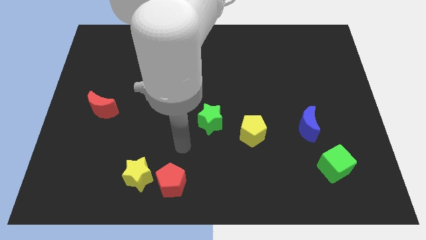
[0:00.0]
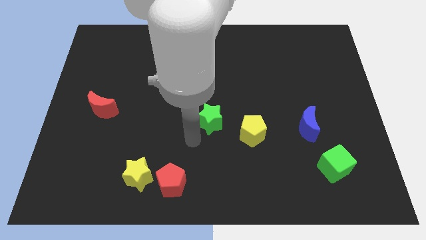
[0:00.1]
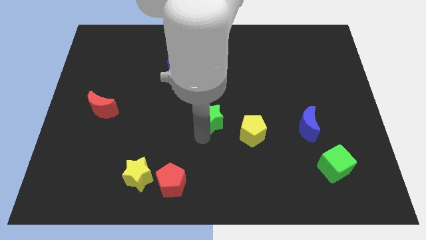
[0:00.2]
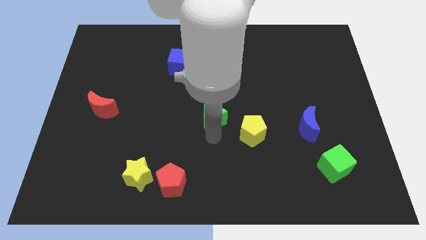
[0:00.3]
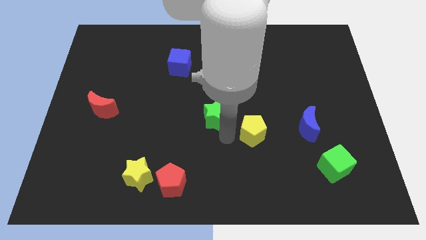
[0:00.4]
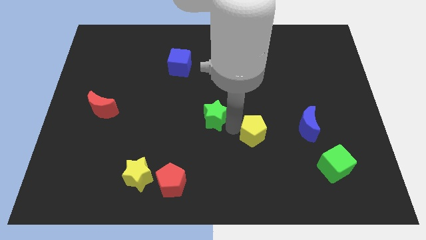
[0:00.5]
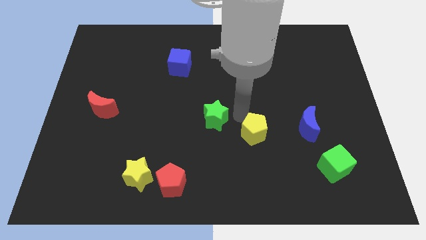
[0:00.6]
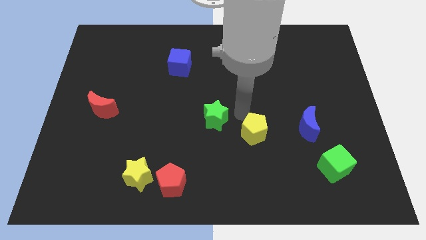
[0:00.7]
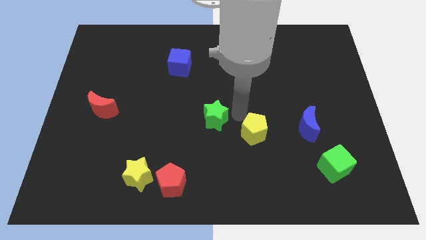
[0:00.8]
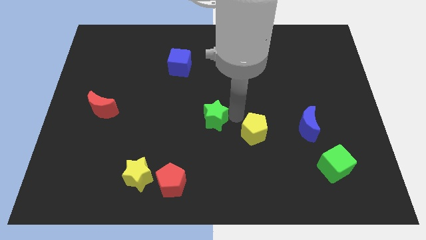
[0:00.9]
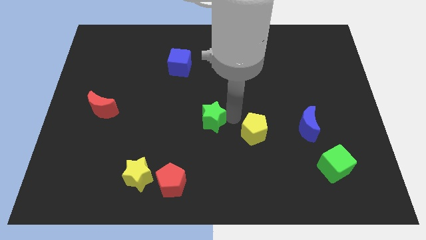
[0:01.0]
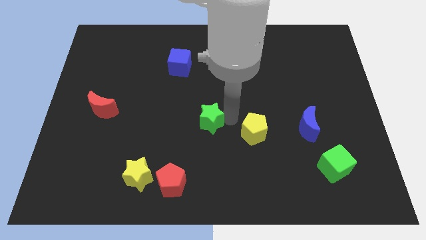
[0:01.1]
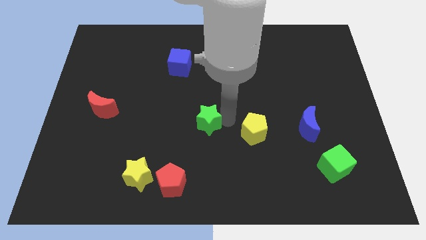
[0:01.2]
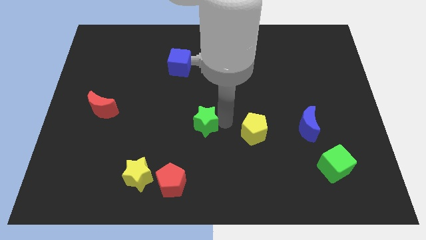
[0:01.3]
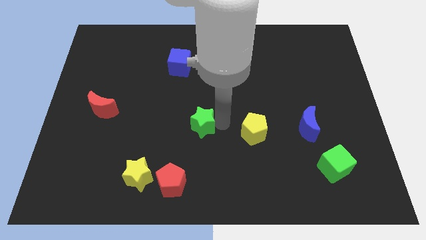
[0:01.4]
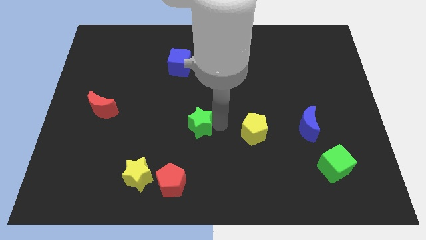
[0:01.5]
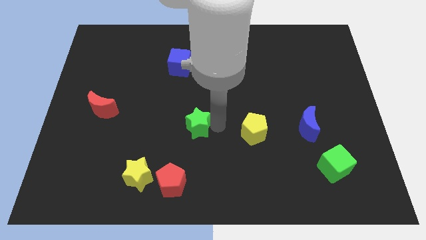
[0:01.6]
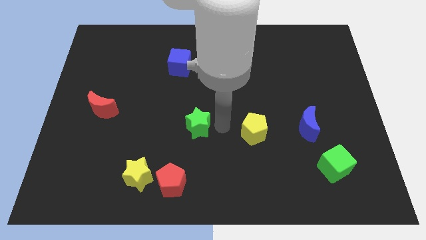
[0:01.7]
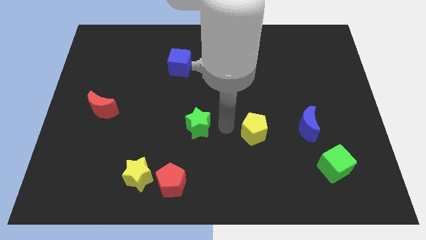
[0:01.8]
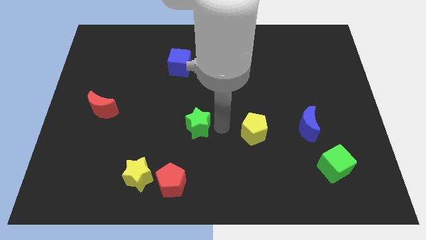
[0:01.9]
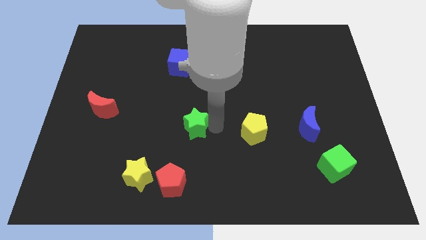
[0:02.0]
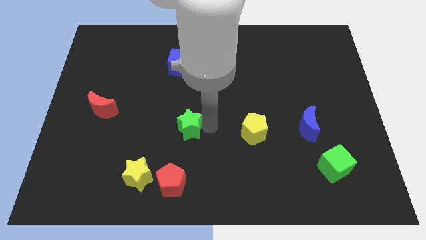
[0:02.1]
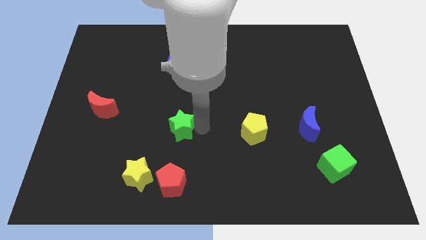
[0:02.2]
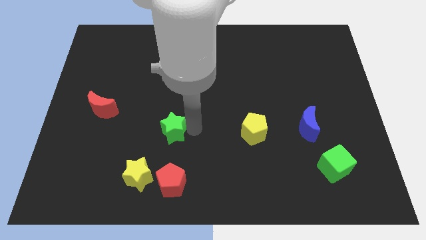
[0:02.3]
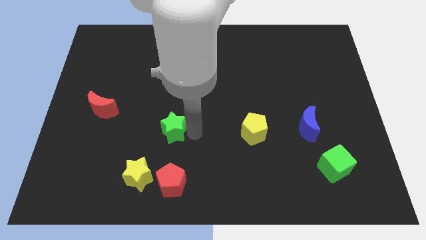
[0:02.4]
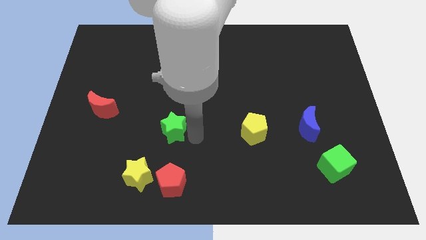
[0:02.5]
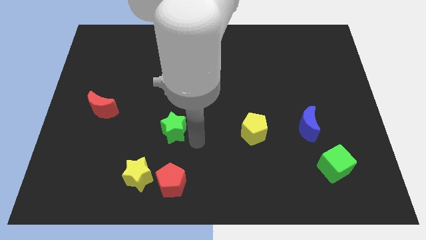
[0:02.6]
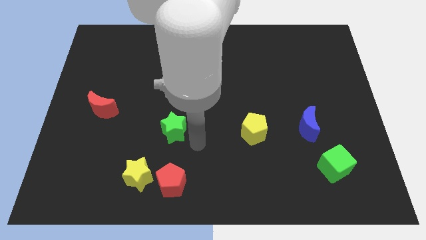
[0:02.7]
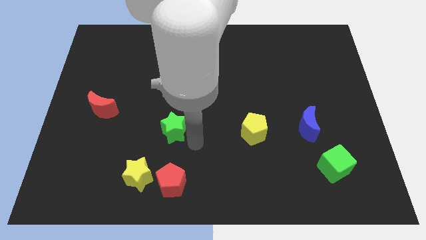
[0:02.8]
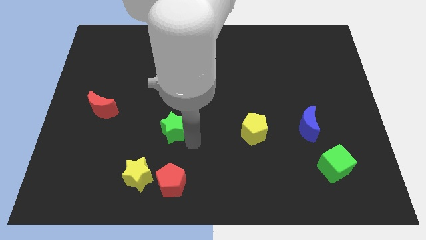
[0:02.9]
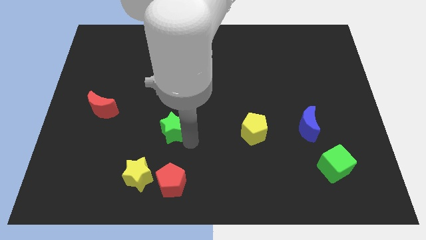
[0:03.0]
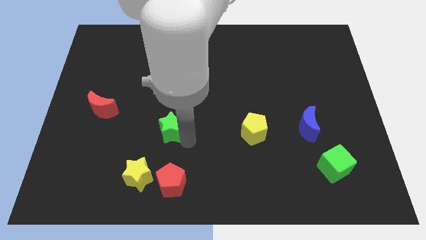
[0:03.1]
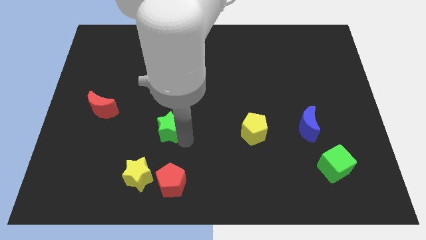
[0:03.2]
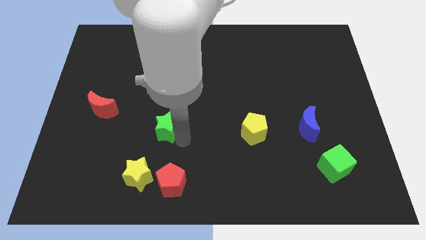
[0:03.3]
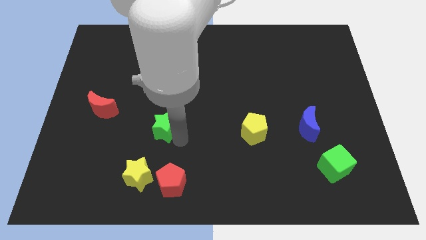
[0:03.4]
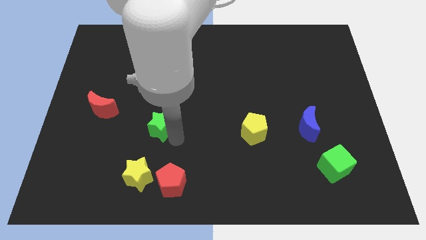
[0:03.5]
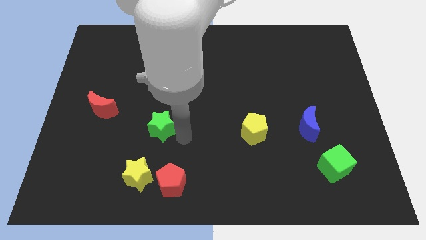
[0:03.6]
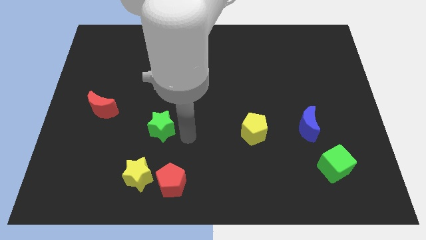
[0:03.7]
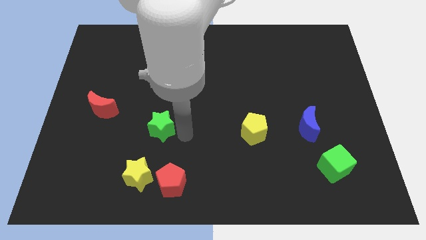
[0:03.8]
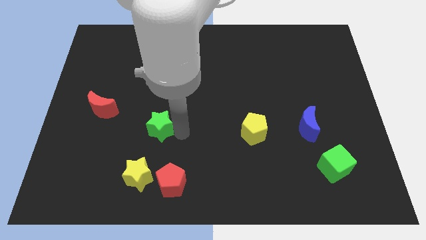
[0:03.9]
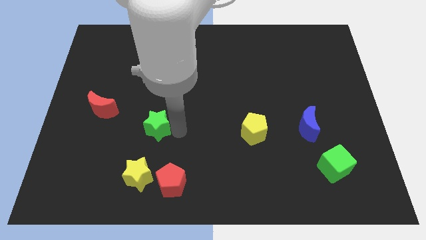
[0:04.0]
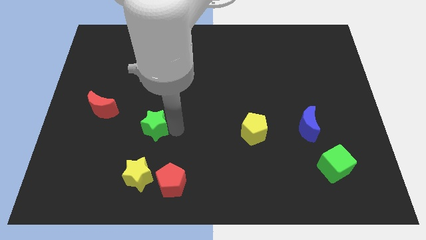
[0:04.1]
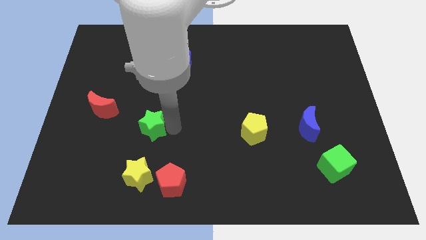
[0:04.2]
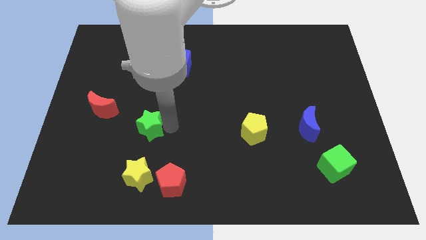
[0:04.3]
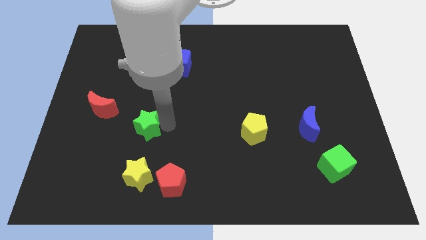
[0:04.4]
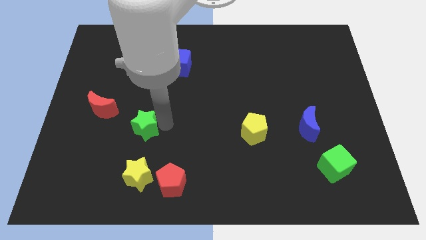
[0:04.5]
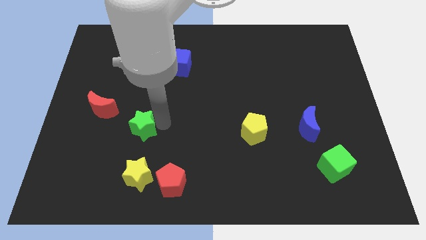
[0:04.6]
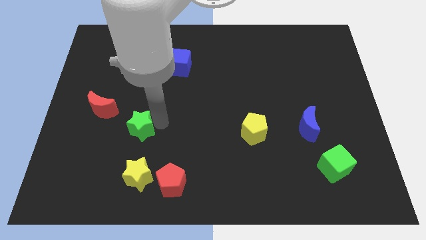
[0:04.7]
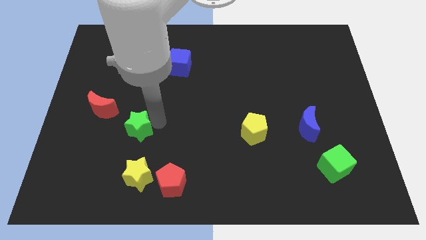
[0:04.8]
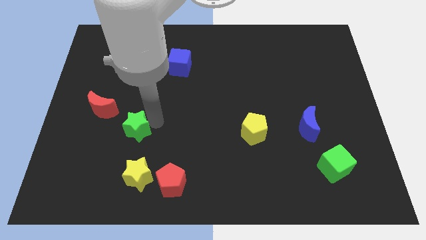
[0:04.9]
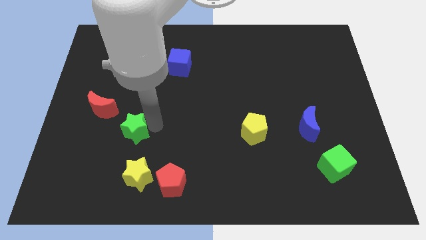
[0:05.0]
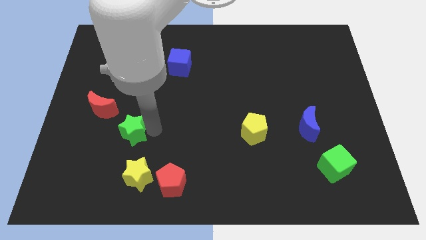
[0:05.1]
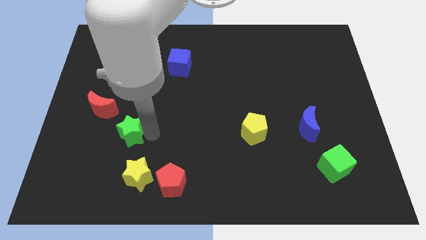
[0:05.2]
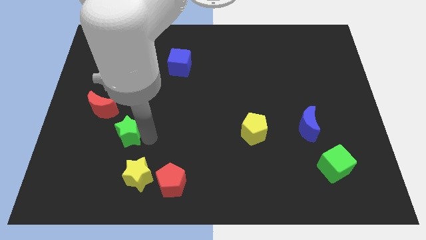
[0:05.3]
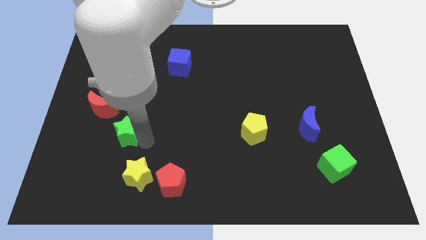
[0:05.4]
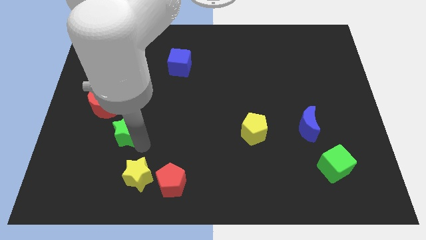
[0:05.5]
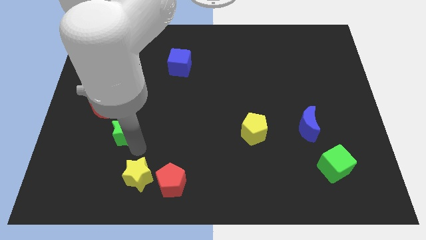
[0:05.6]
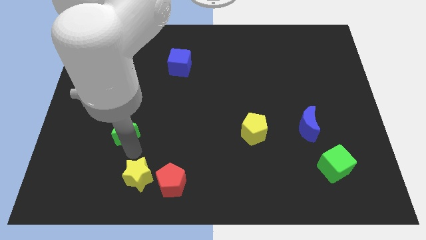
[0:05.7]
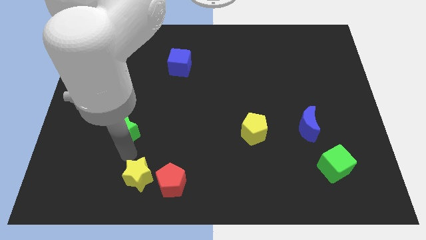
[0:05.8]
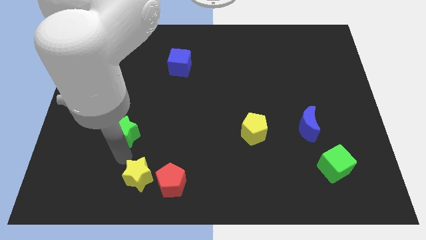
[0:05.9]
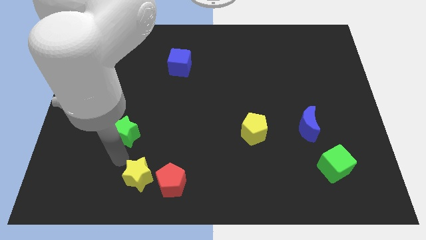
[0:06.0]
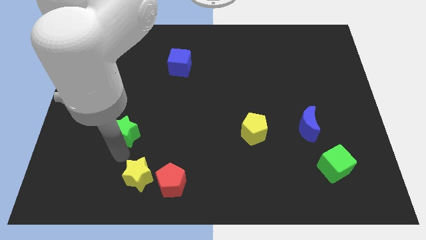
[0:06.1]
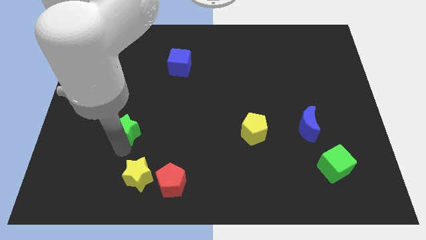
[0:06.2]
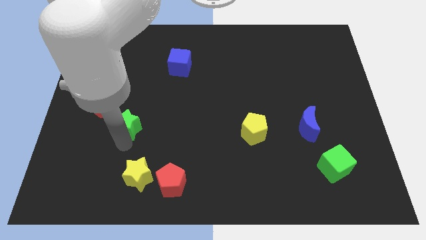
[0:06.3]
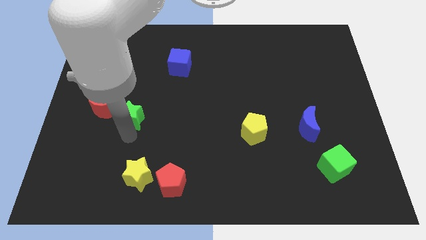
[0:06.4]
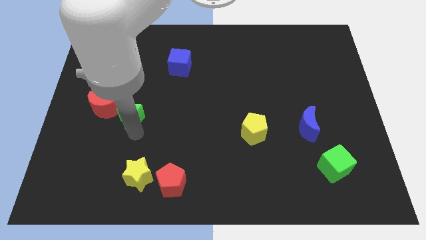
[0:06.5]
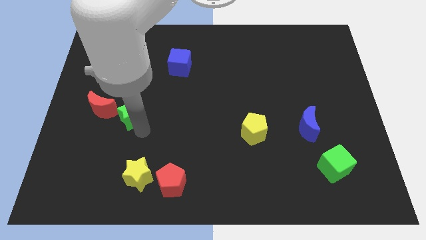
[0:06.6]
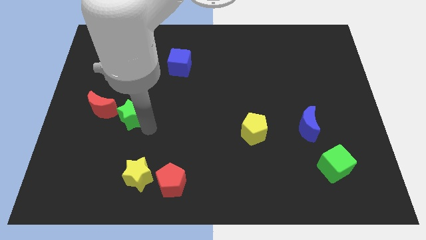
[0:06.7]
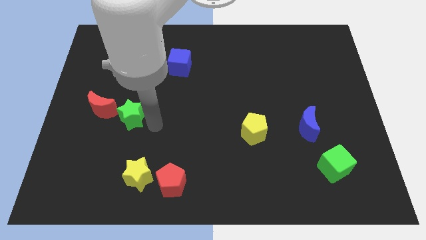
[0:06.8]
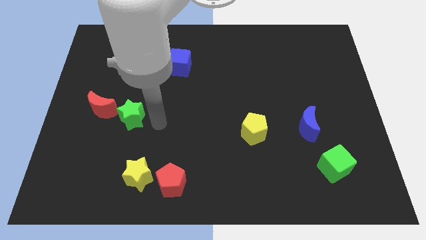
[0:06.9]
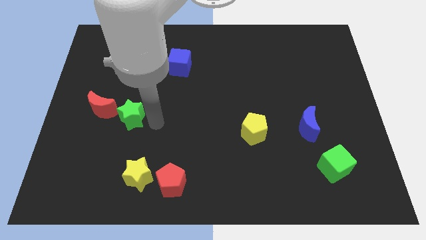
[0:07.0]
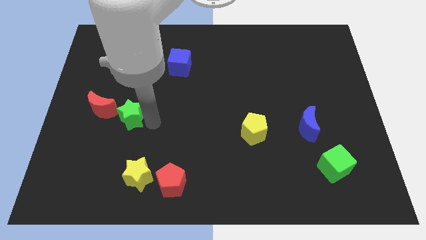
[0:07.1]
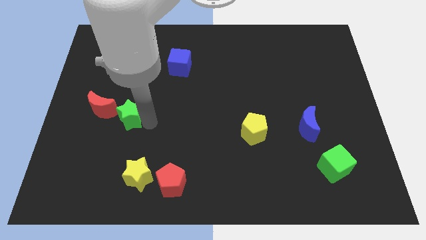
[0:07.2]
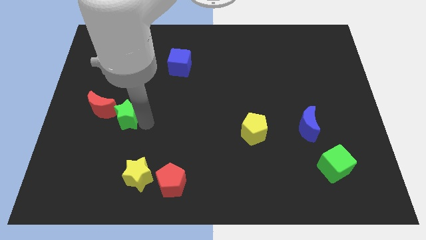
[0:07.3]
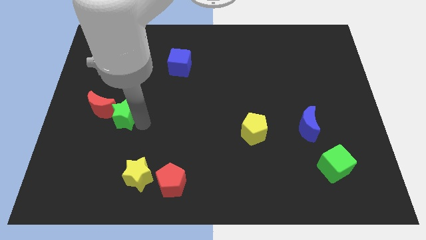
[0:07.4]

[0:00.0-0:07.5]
push the green star next to the red moon
